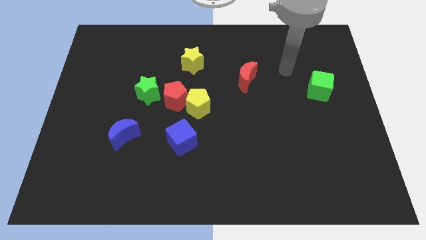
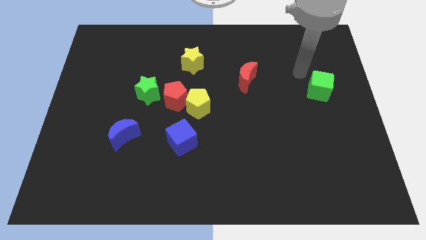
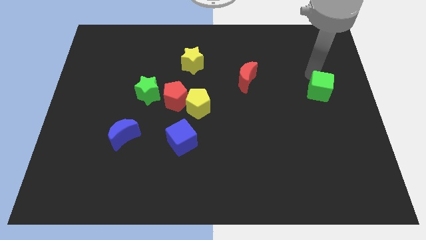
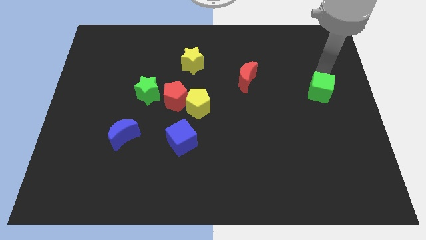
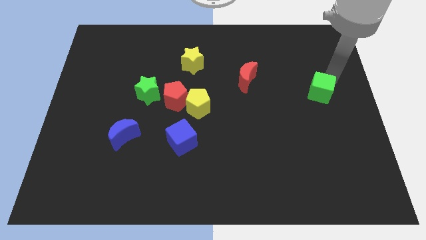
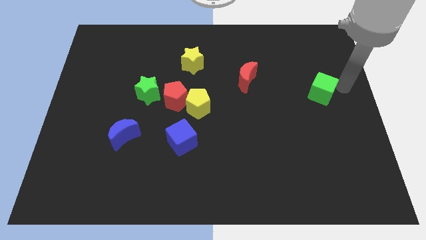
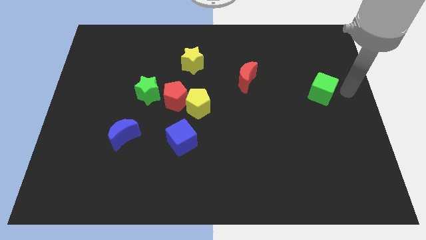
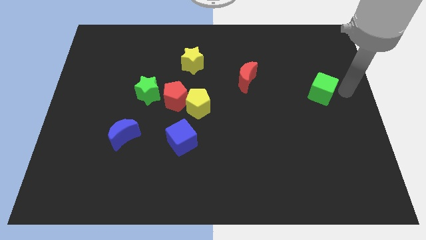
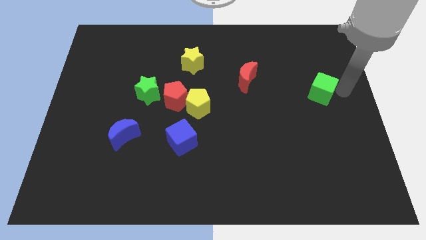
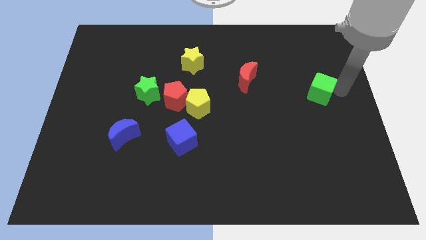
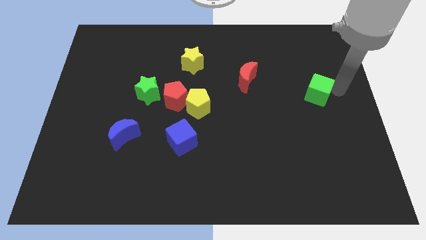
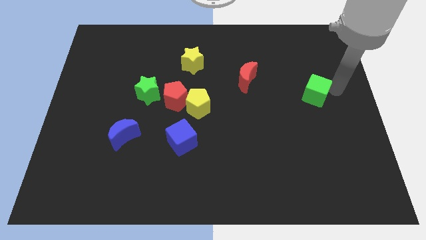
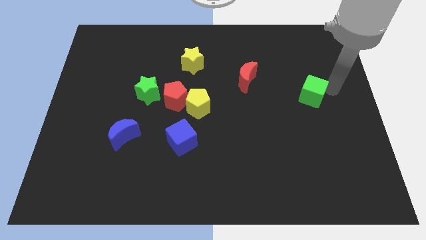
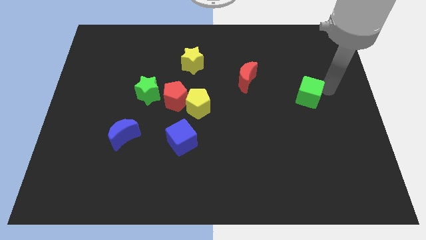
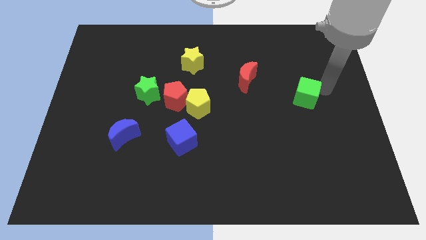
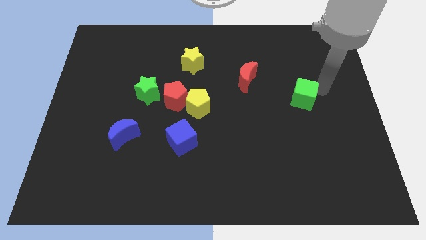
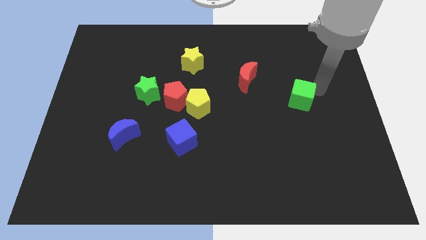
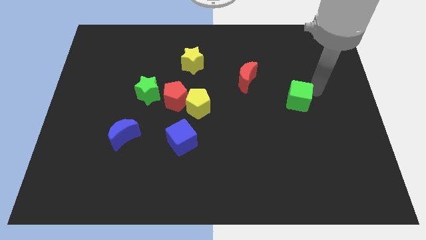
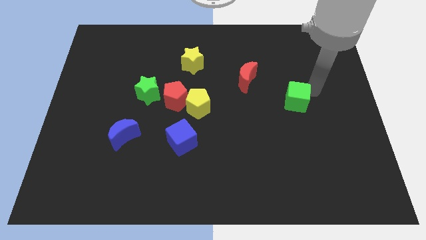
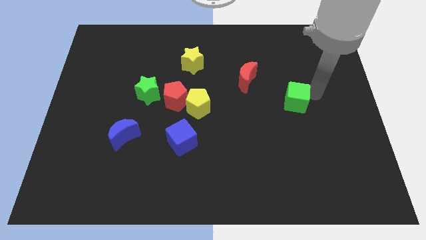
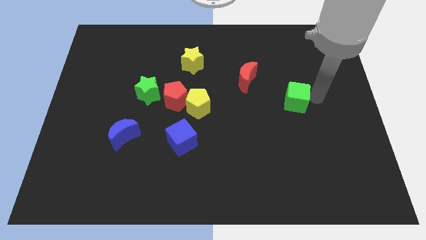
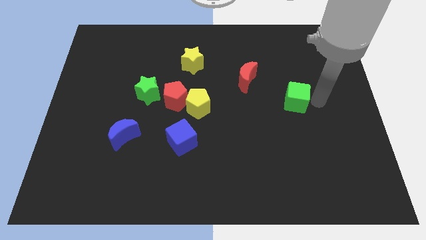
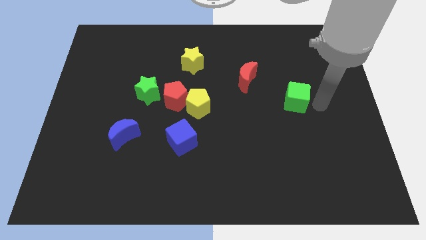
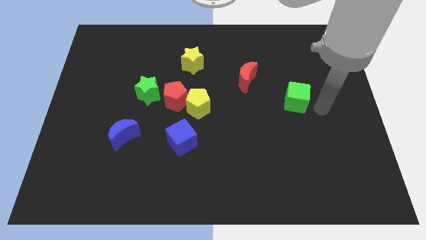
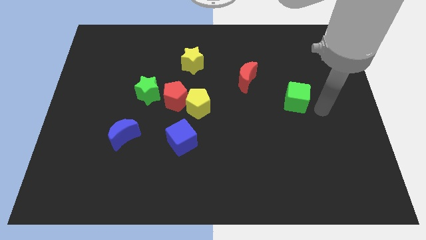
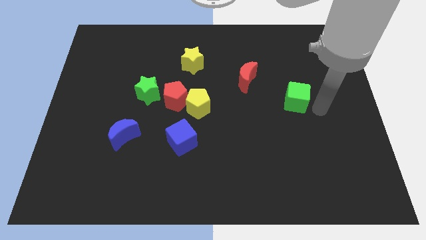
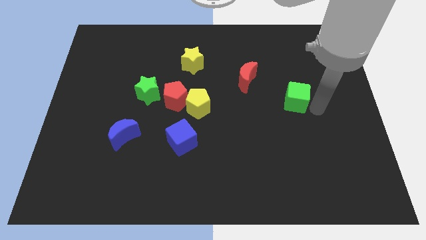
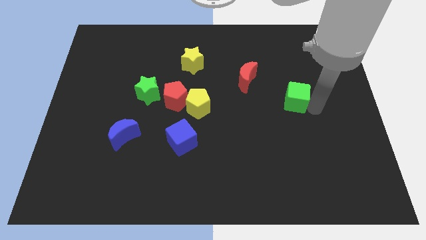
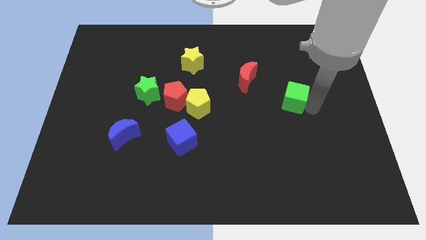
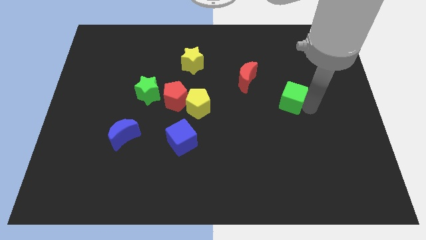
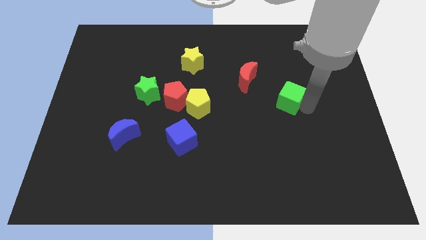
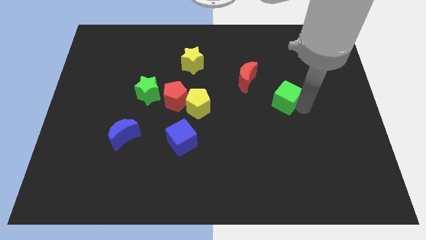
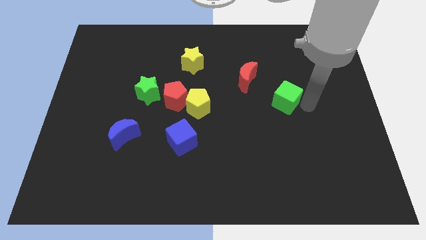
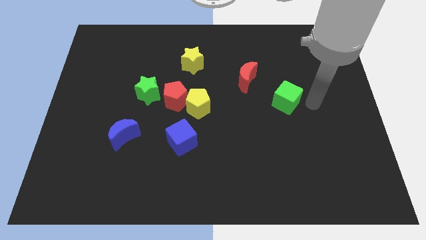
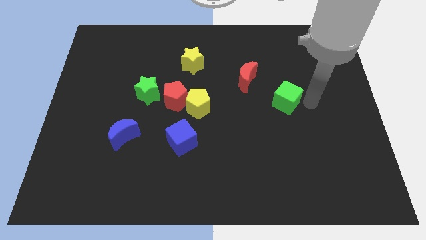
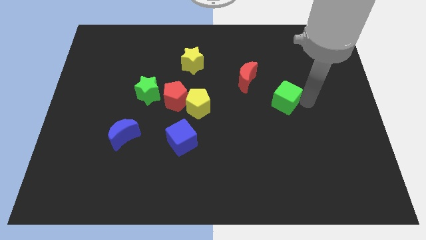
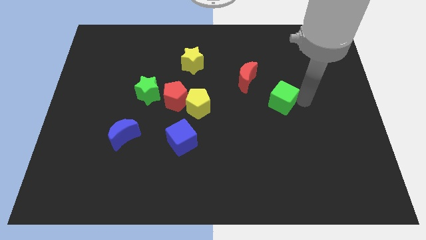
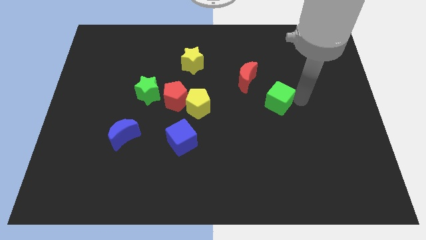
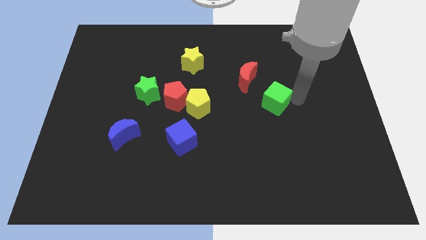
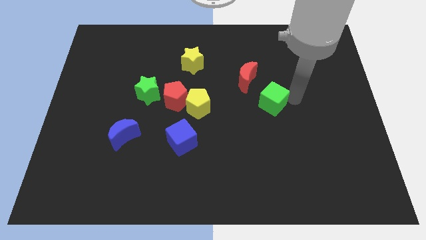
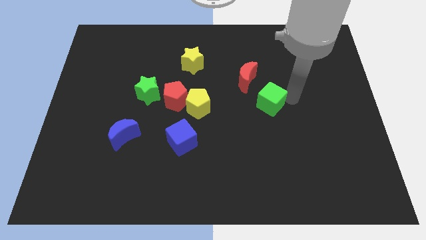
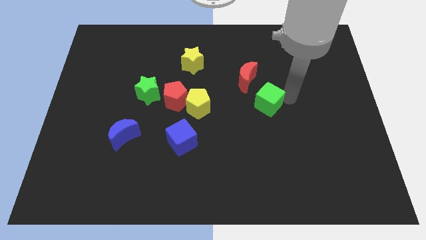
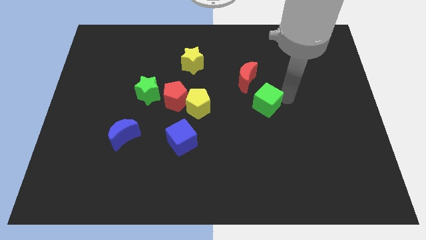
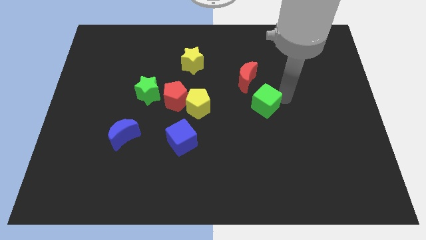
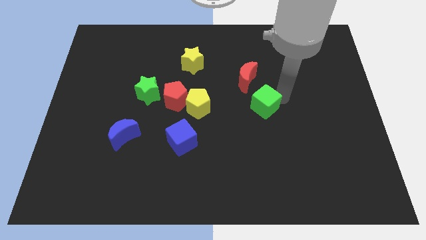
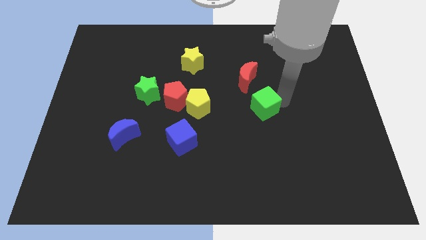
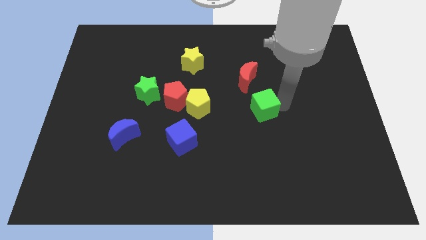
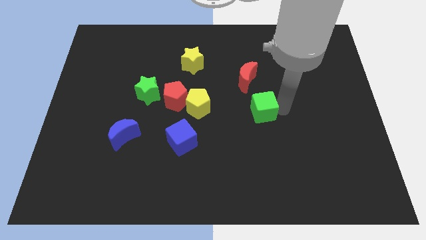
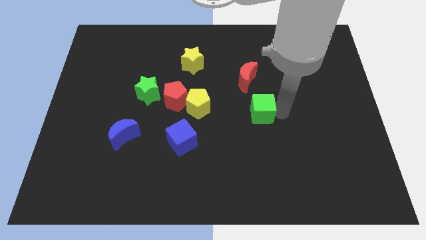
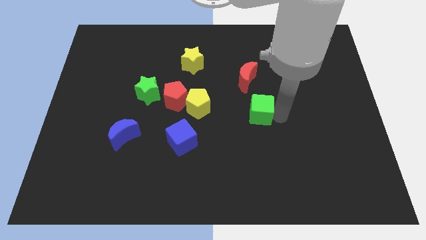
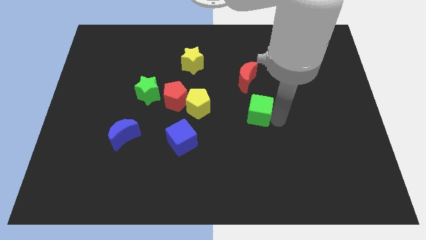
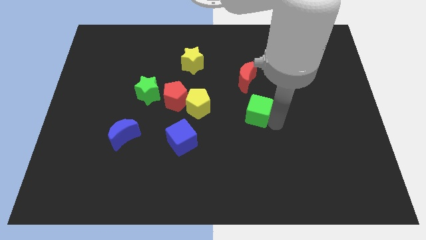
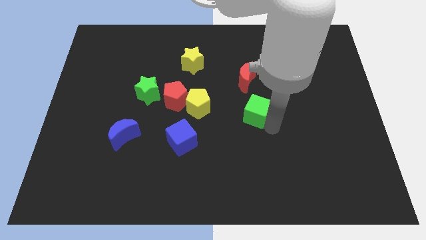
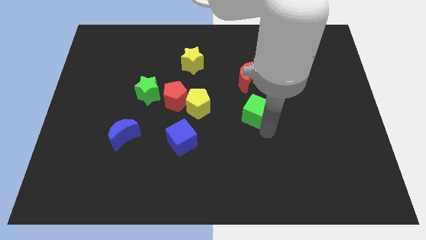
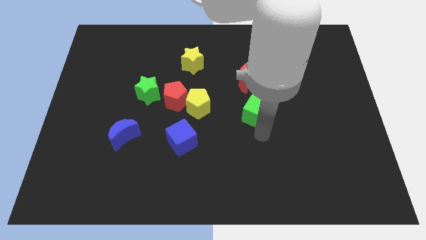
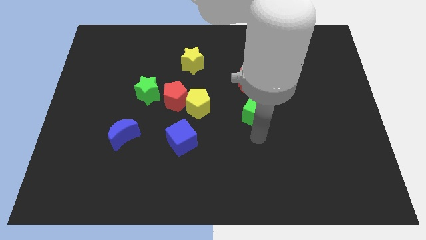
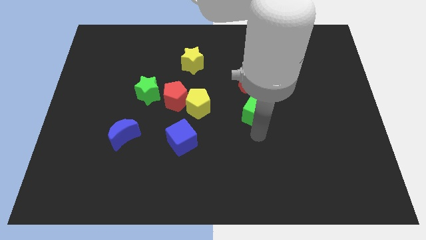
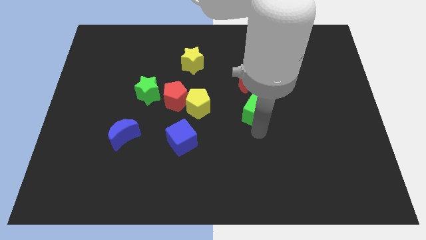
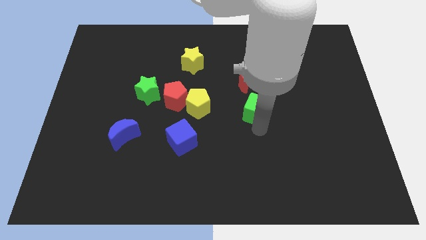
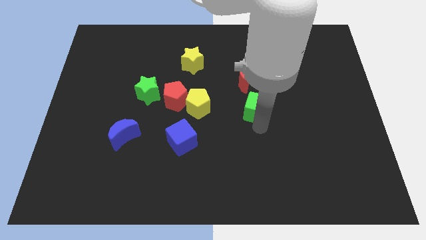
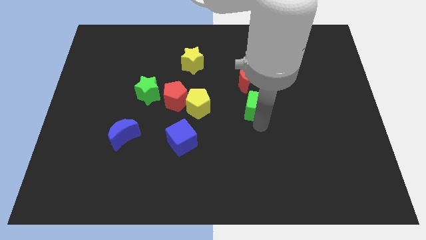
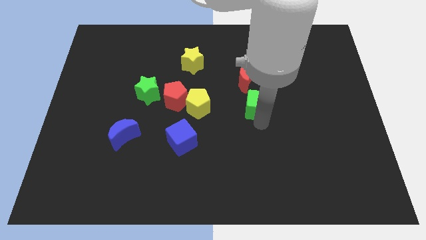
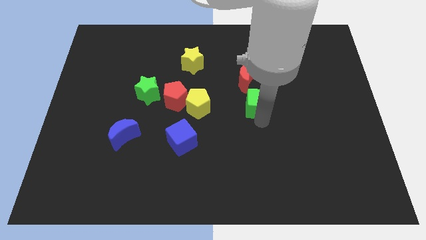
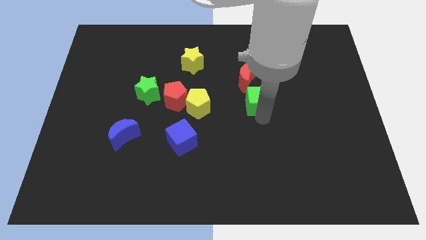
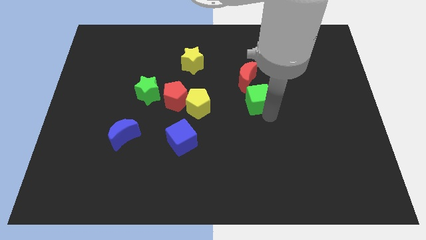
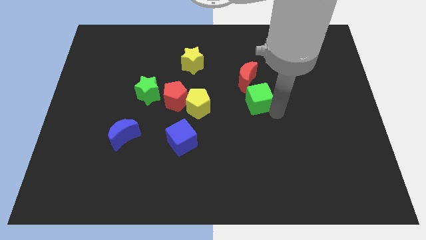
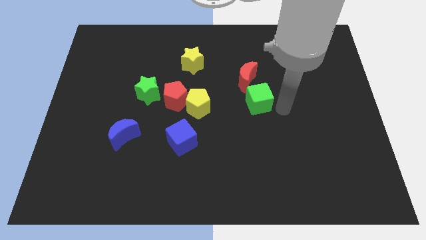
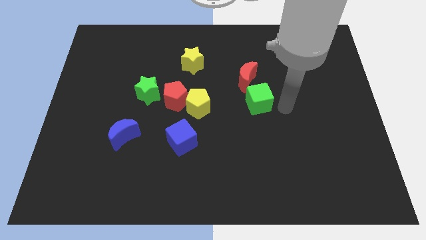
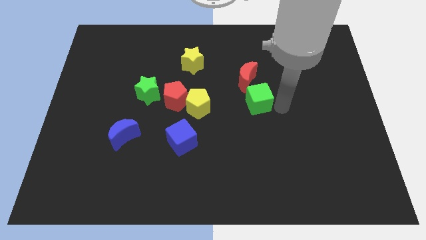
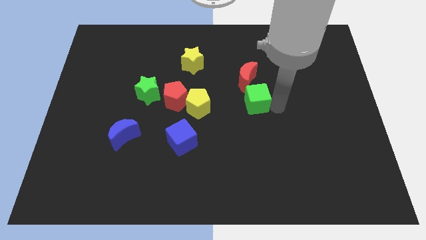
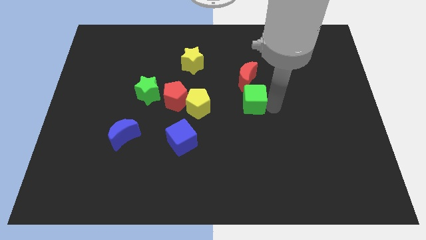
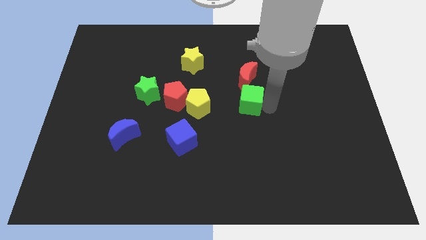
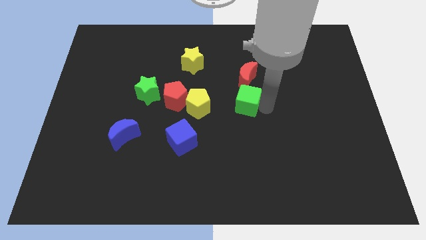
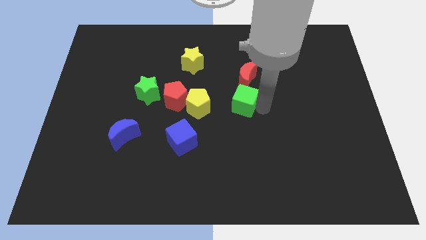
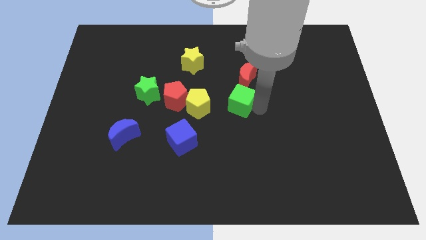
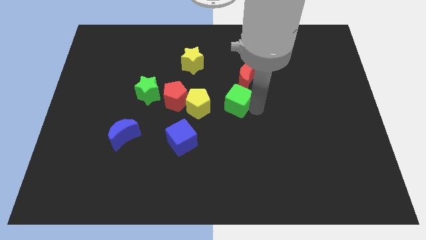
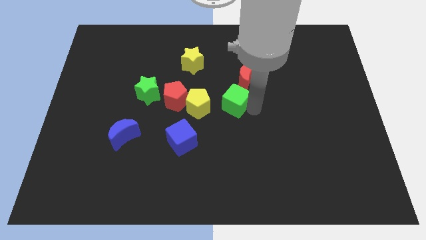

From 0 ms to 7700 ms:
move the green cube to the left
